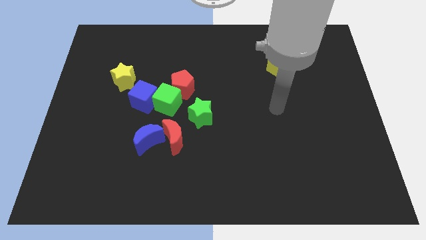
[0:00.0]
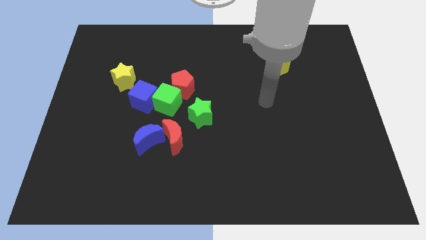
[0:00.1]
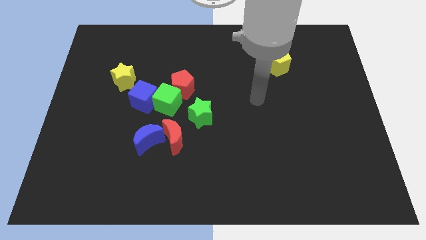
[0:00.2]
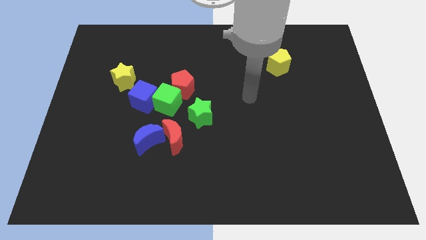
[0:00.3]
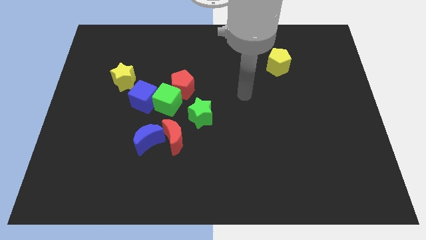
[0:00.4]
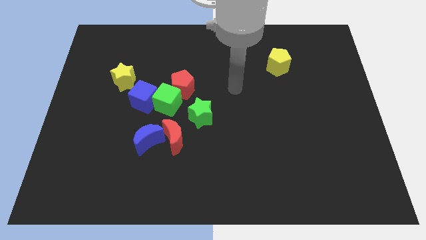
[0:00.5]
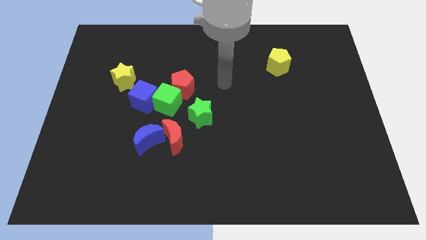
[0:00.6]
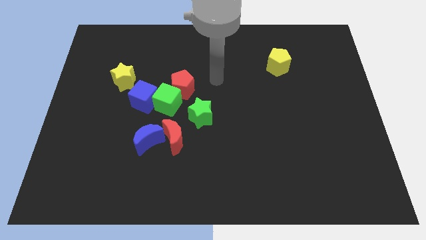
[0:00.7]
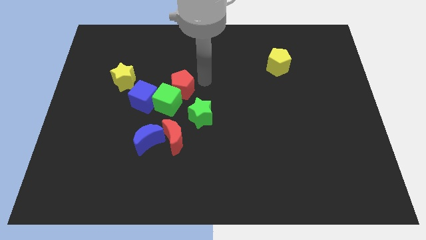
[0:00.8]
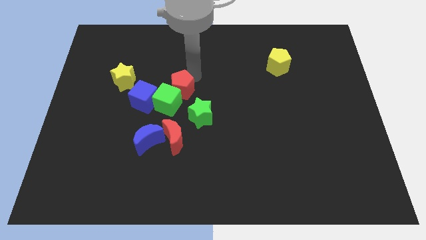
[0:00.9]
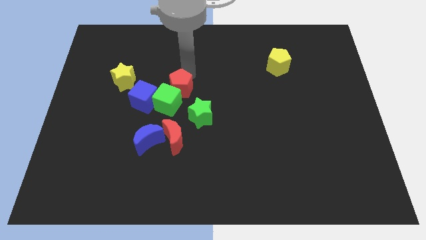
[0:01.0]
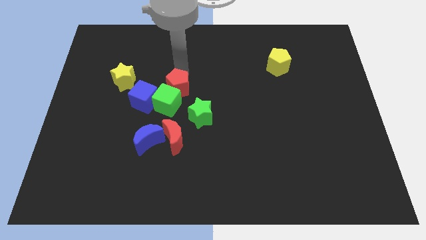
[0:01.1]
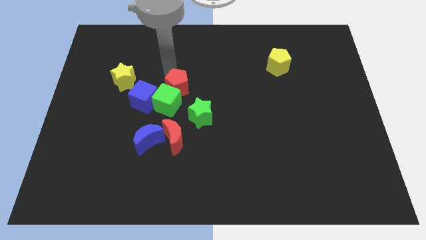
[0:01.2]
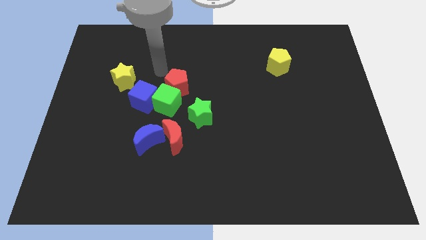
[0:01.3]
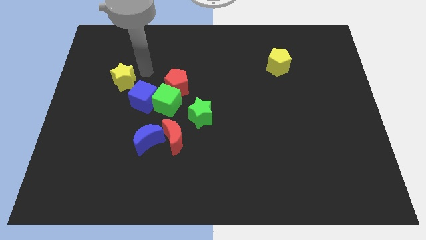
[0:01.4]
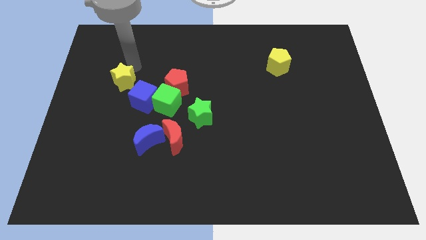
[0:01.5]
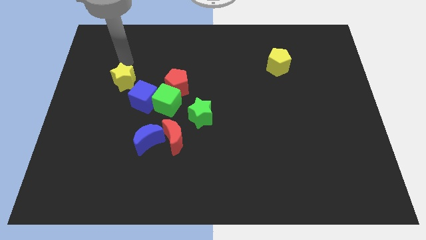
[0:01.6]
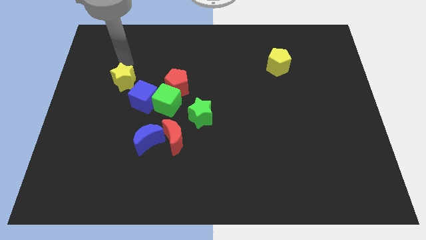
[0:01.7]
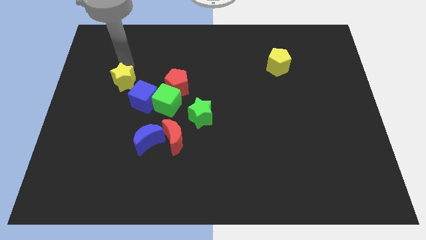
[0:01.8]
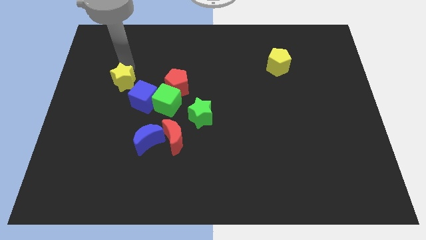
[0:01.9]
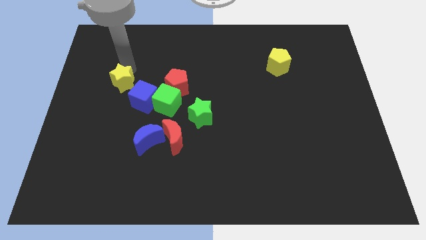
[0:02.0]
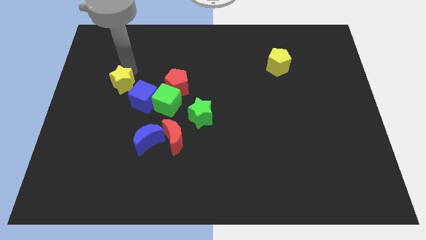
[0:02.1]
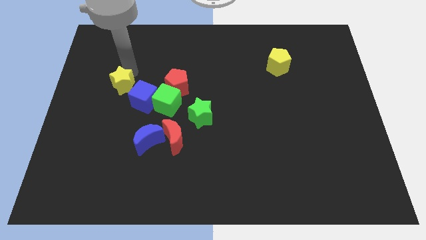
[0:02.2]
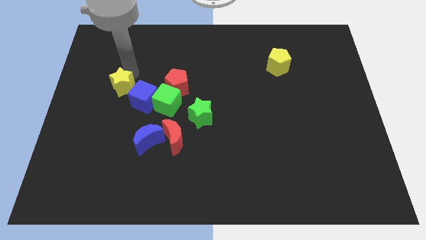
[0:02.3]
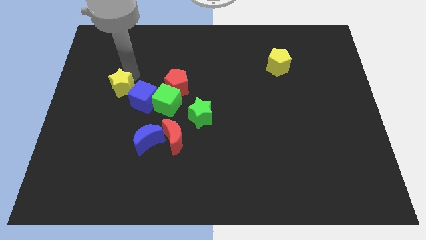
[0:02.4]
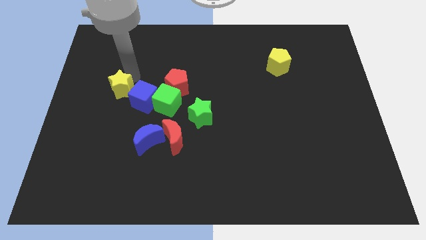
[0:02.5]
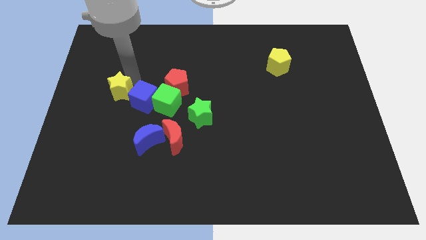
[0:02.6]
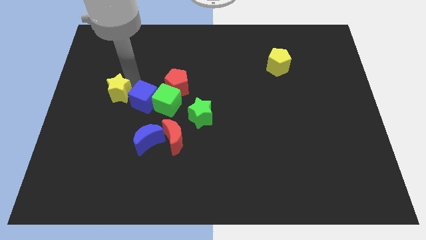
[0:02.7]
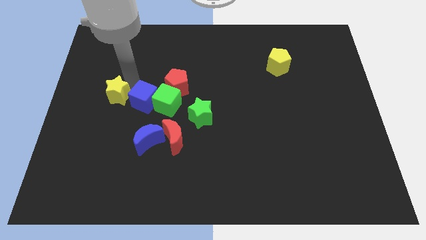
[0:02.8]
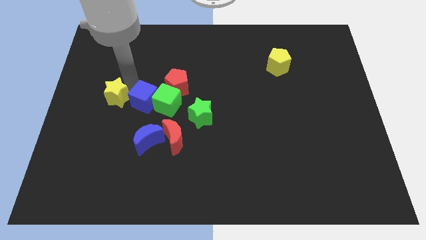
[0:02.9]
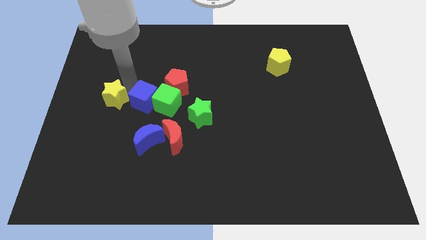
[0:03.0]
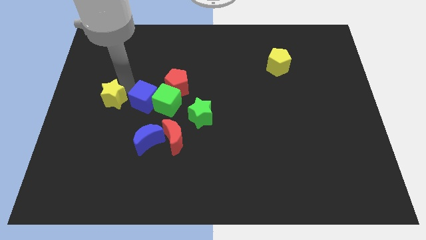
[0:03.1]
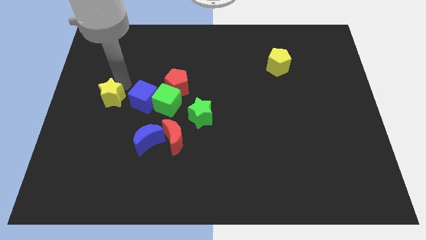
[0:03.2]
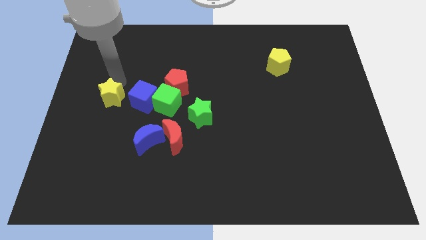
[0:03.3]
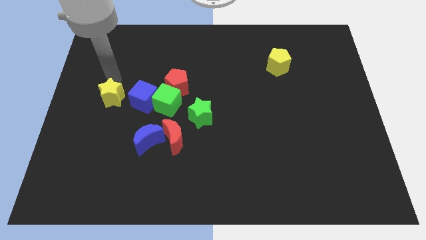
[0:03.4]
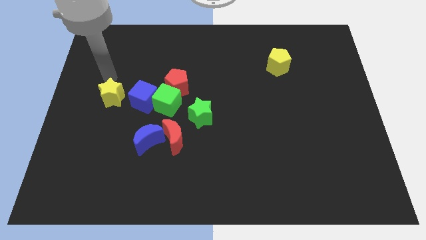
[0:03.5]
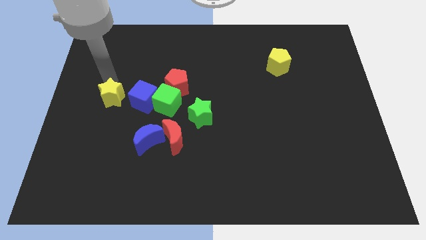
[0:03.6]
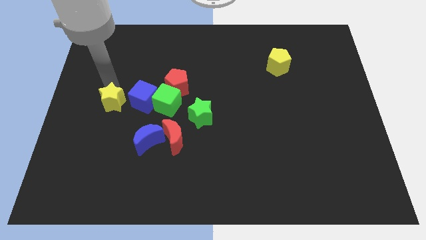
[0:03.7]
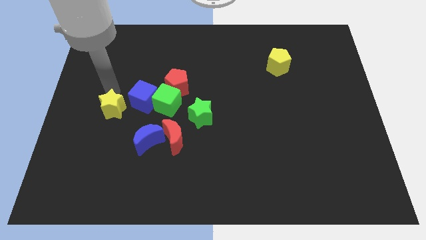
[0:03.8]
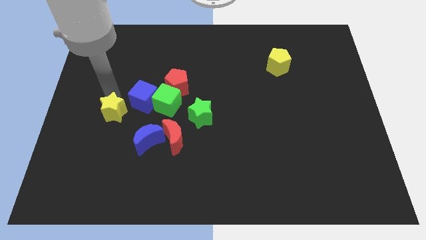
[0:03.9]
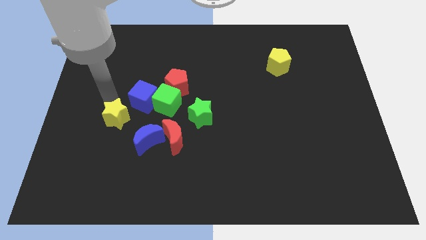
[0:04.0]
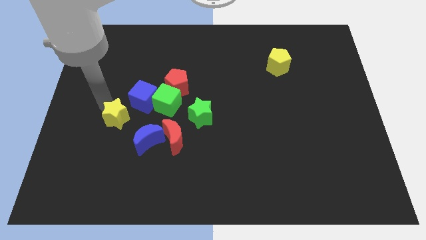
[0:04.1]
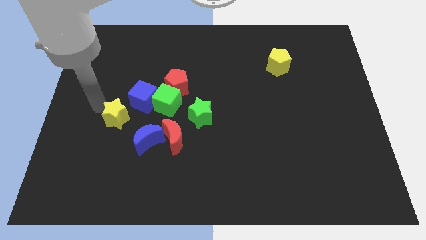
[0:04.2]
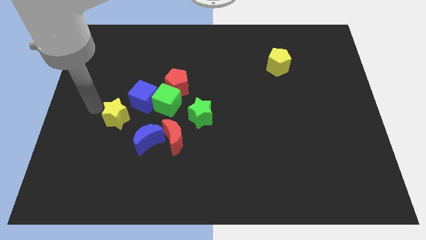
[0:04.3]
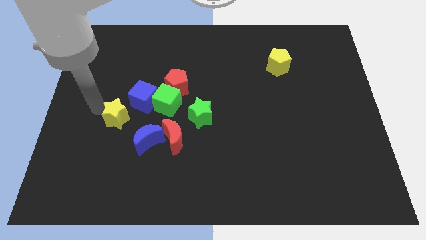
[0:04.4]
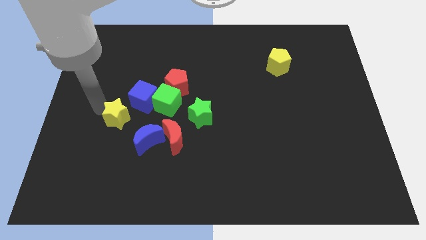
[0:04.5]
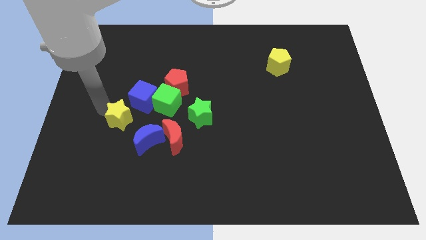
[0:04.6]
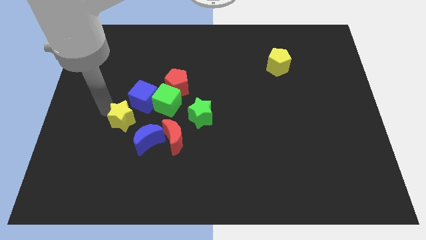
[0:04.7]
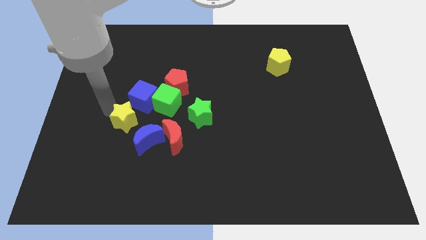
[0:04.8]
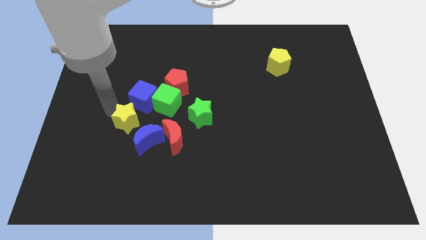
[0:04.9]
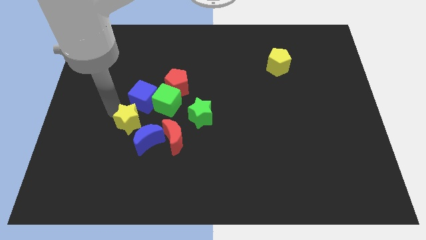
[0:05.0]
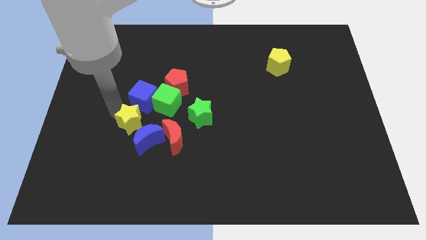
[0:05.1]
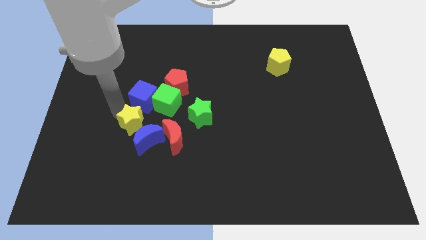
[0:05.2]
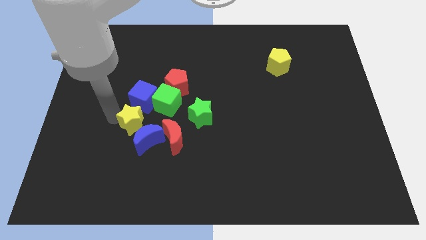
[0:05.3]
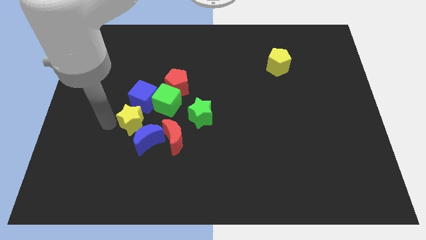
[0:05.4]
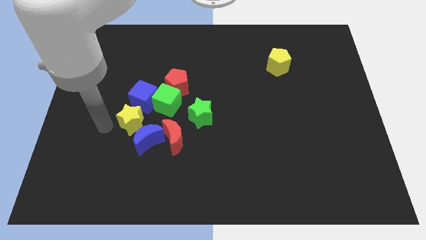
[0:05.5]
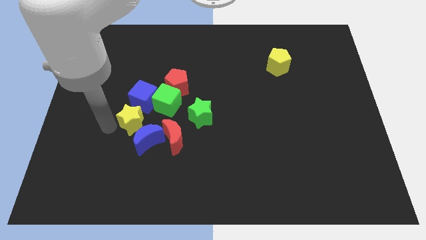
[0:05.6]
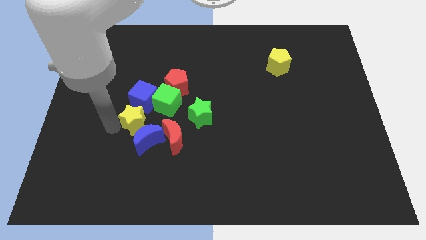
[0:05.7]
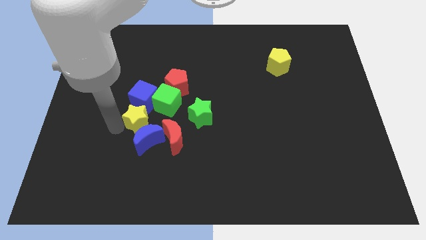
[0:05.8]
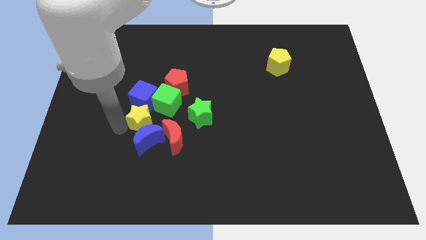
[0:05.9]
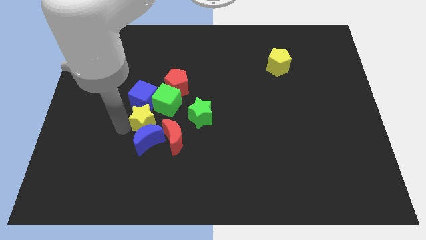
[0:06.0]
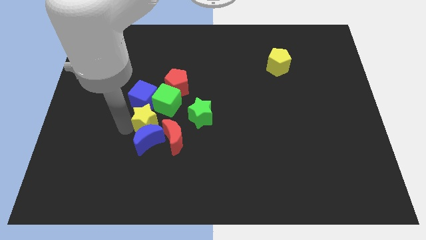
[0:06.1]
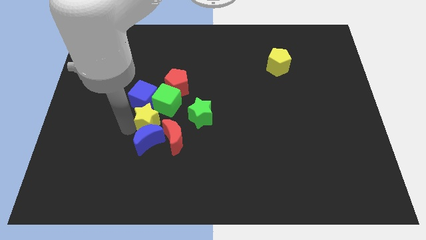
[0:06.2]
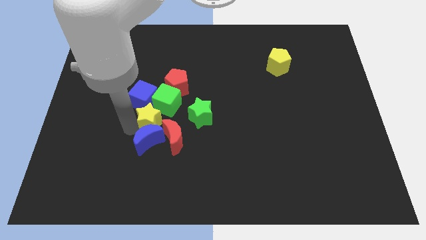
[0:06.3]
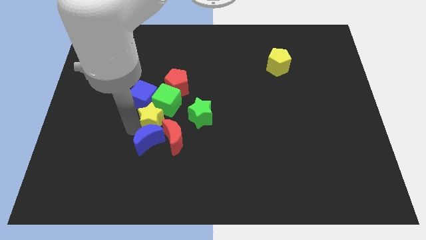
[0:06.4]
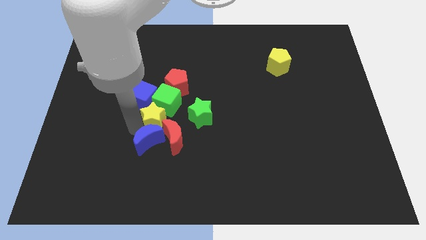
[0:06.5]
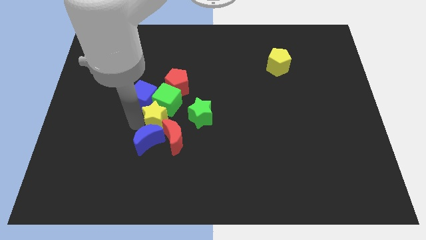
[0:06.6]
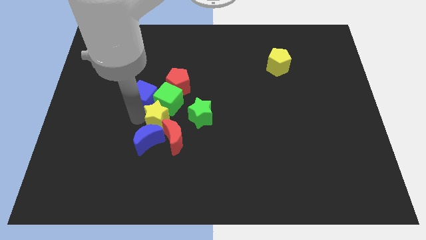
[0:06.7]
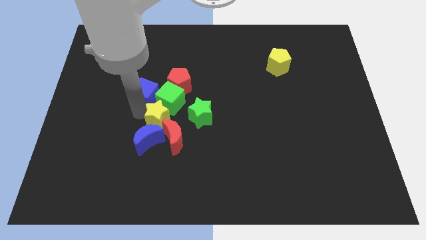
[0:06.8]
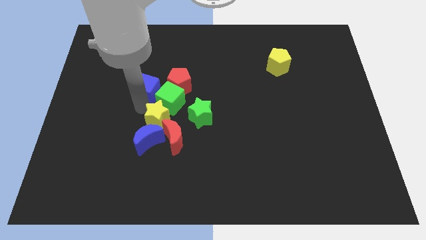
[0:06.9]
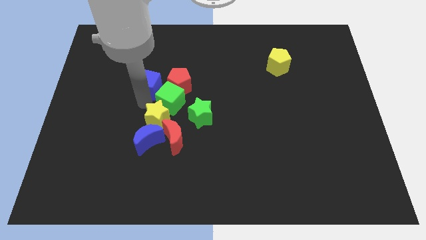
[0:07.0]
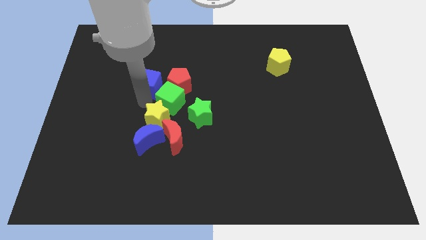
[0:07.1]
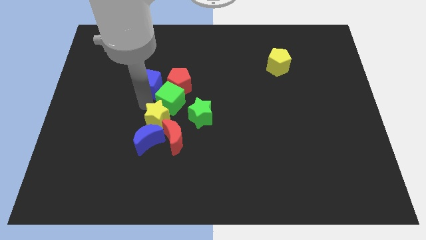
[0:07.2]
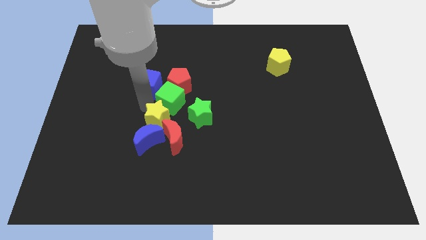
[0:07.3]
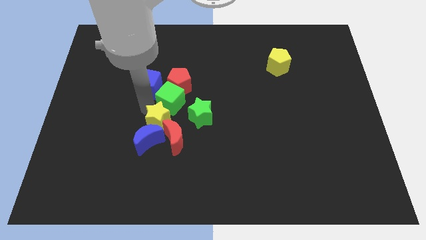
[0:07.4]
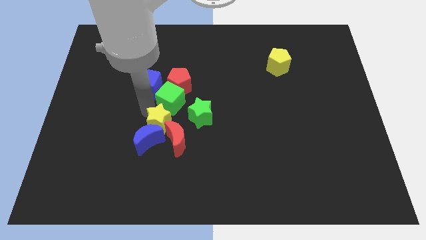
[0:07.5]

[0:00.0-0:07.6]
put the yellow star close to the red moon

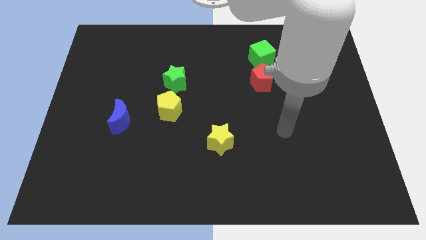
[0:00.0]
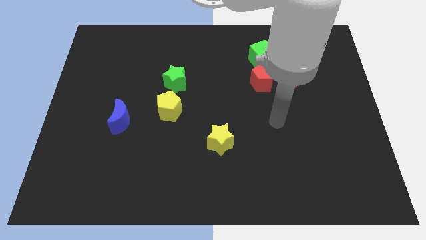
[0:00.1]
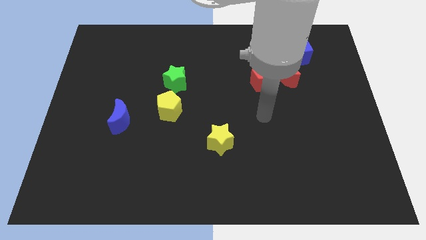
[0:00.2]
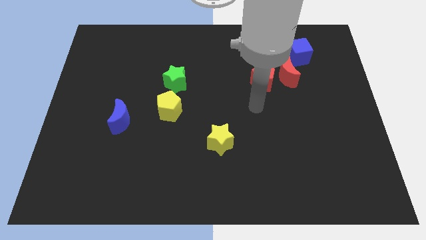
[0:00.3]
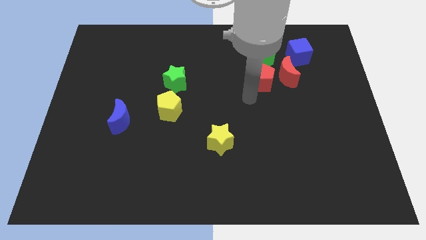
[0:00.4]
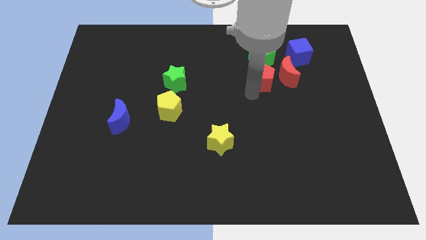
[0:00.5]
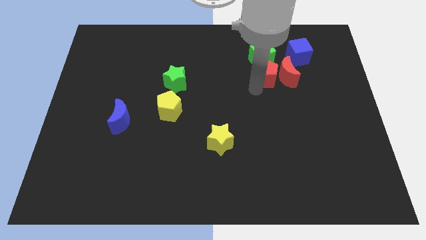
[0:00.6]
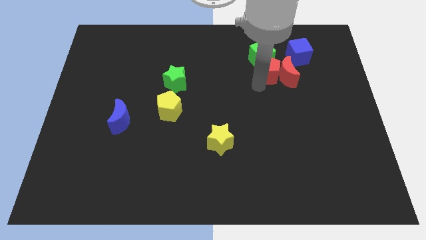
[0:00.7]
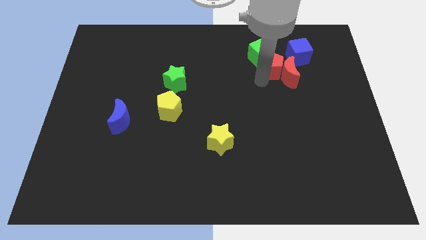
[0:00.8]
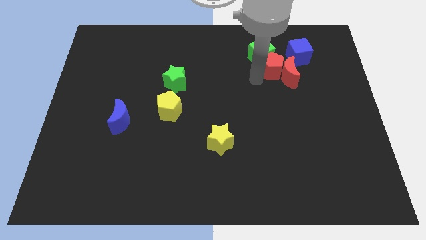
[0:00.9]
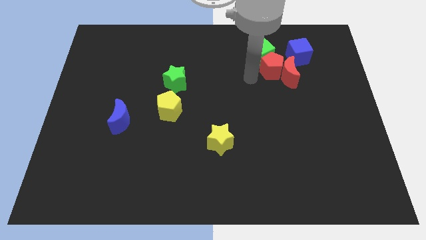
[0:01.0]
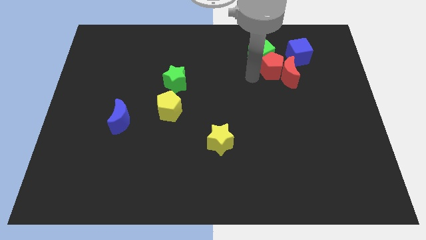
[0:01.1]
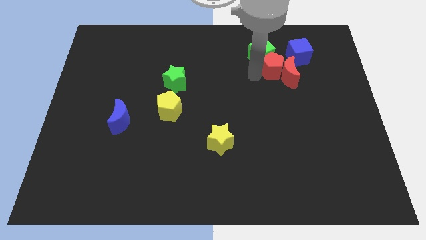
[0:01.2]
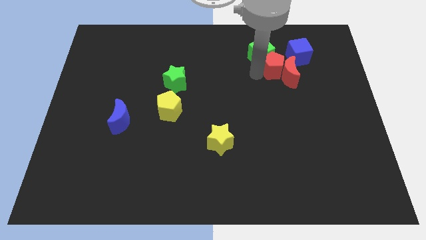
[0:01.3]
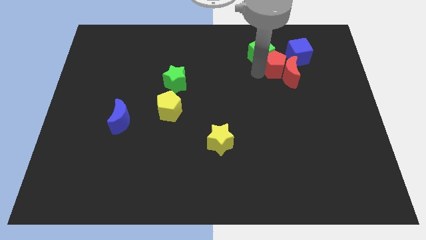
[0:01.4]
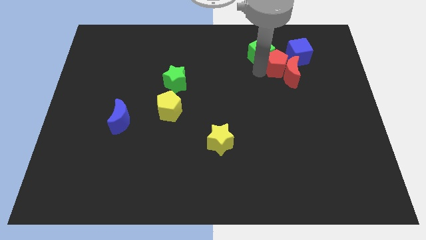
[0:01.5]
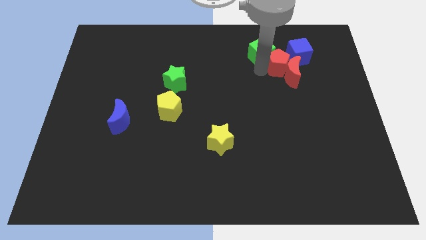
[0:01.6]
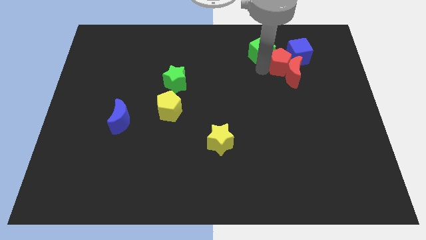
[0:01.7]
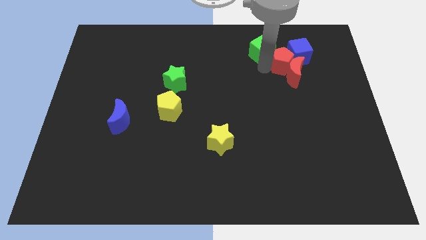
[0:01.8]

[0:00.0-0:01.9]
put the red pentagon to the blue cube
